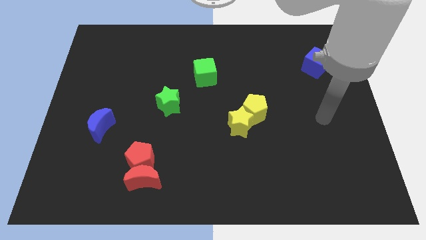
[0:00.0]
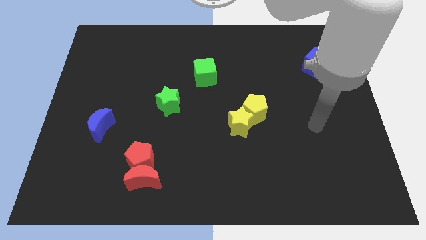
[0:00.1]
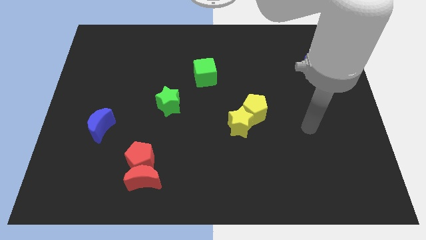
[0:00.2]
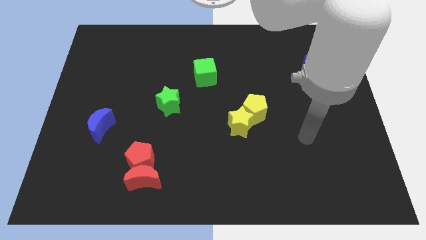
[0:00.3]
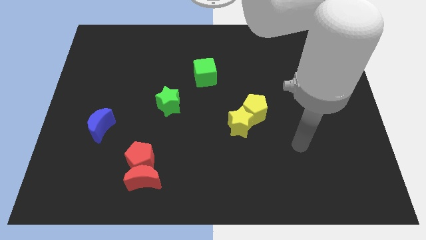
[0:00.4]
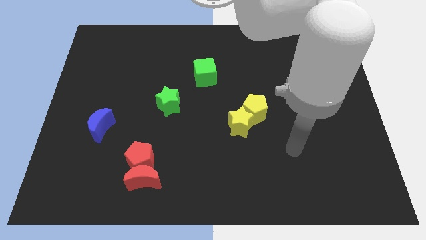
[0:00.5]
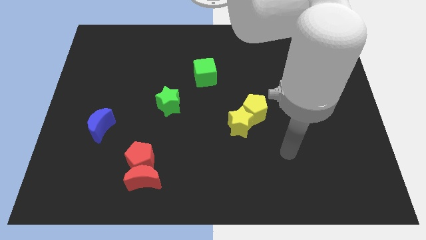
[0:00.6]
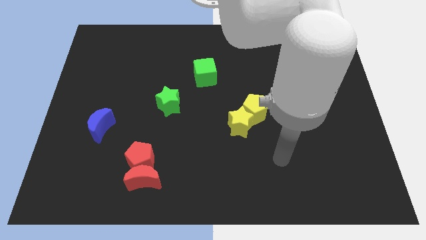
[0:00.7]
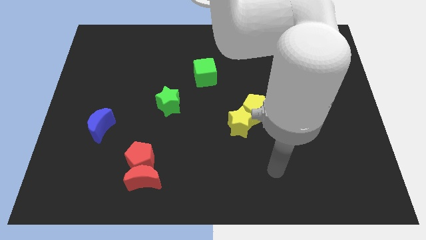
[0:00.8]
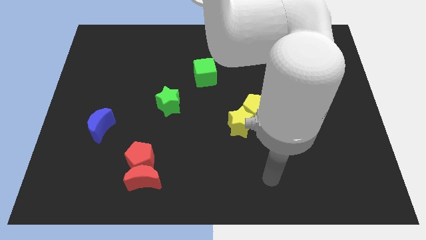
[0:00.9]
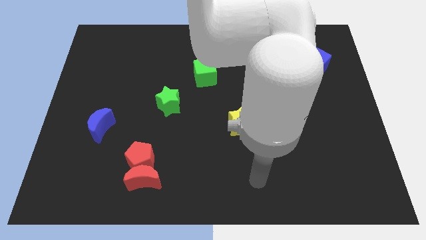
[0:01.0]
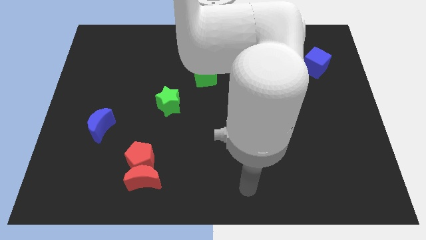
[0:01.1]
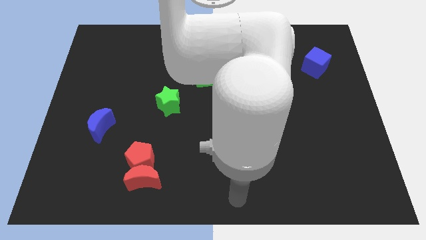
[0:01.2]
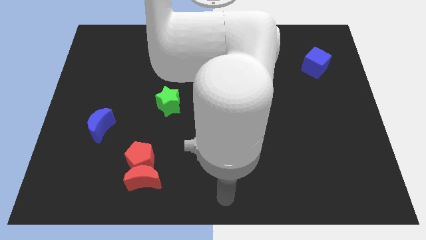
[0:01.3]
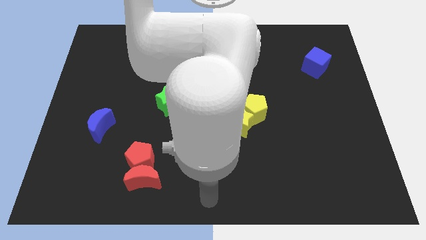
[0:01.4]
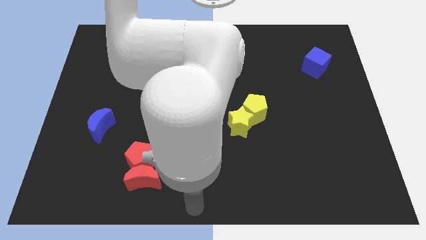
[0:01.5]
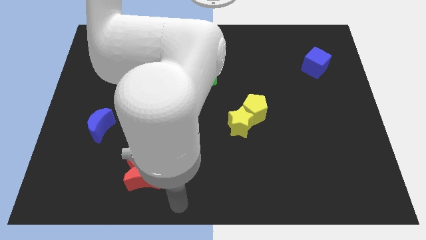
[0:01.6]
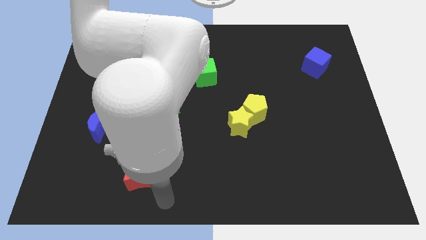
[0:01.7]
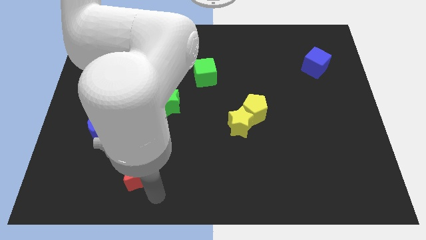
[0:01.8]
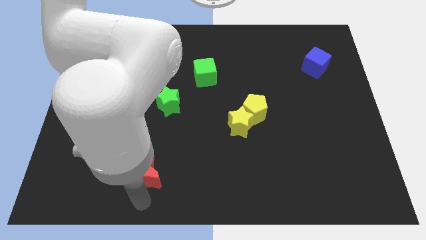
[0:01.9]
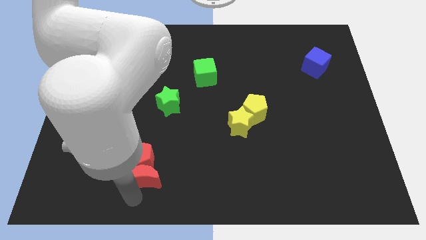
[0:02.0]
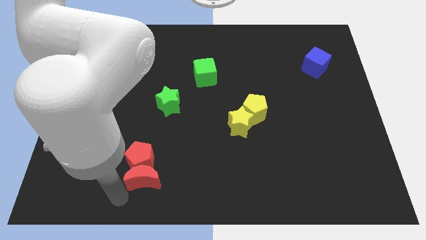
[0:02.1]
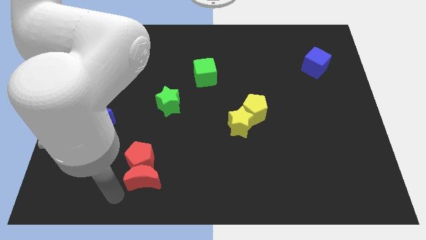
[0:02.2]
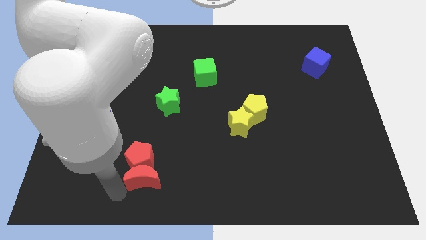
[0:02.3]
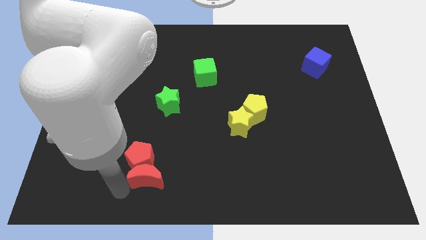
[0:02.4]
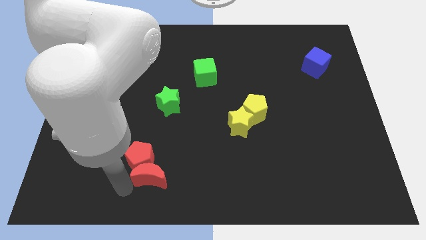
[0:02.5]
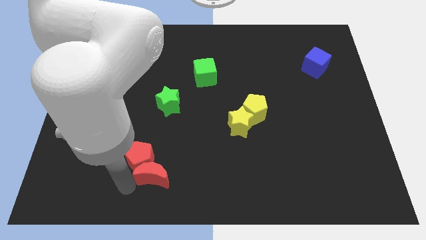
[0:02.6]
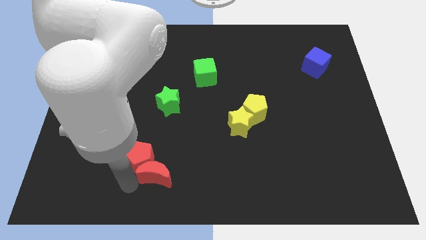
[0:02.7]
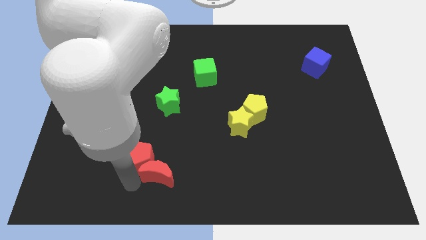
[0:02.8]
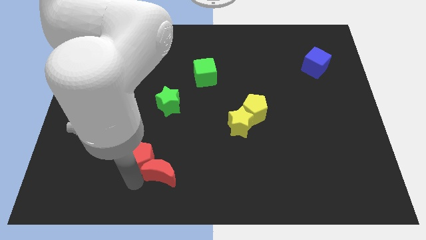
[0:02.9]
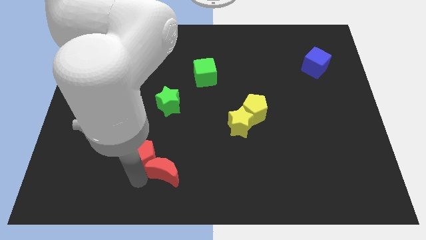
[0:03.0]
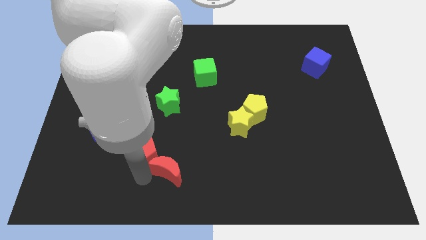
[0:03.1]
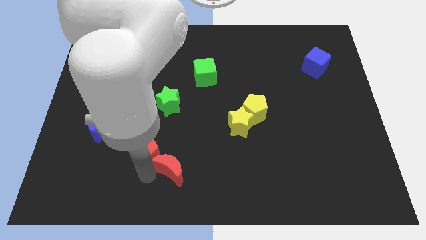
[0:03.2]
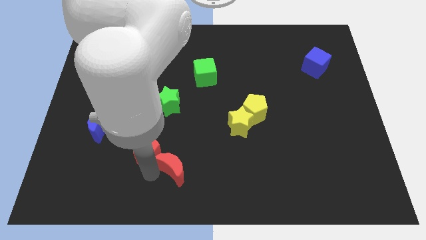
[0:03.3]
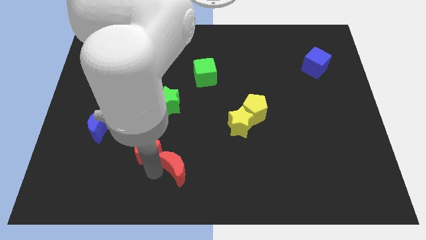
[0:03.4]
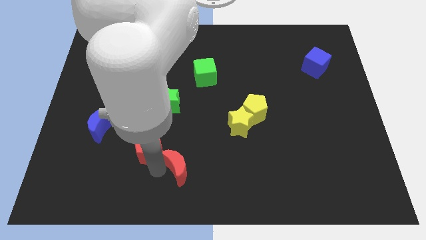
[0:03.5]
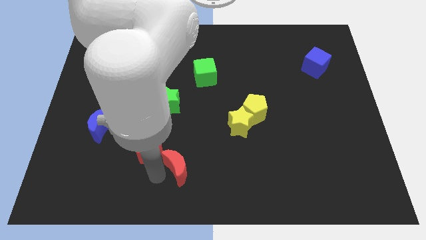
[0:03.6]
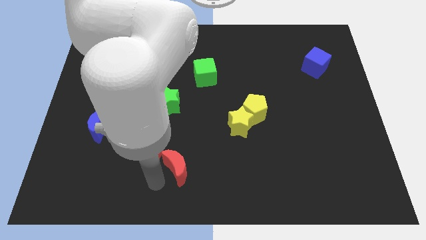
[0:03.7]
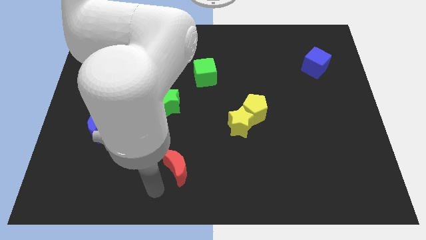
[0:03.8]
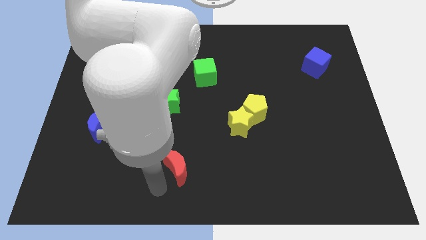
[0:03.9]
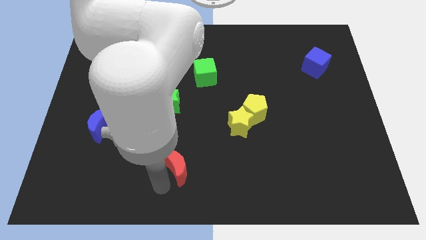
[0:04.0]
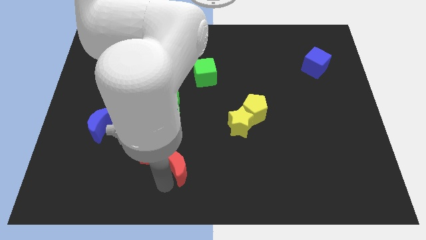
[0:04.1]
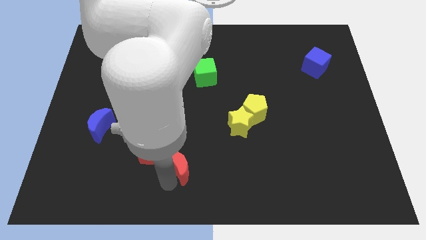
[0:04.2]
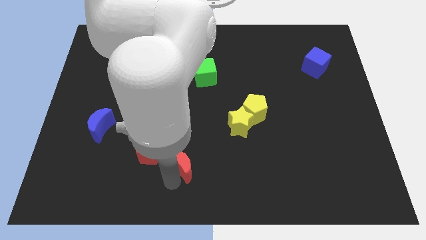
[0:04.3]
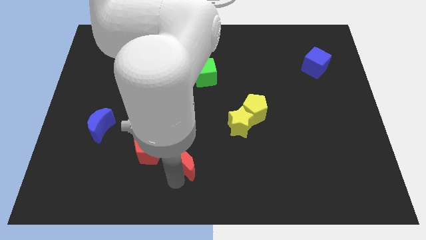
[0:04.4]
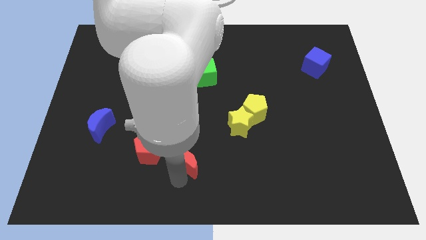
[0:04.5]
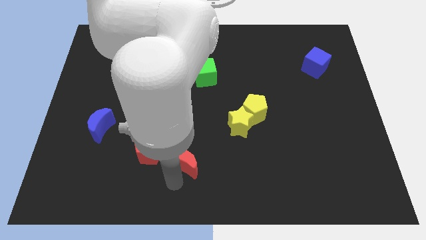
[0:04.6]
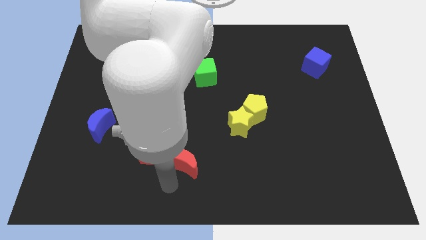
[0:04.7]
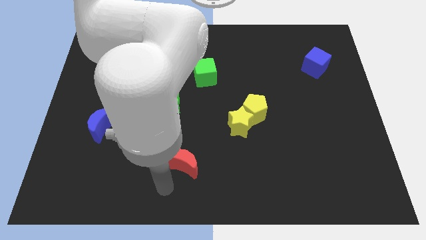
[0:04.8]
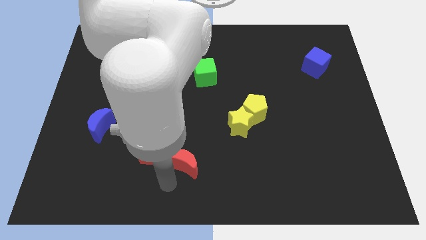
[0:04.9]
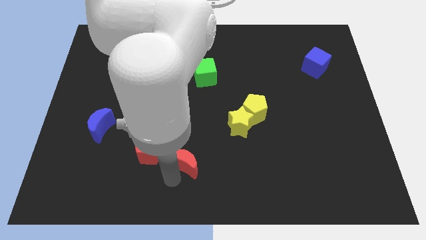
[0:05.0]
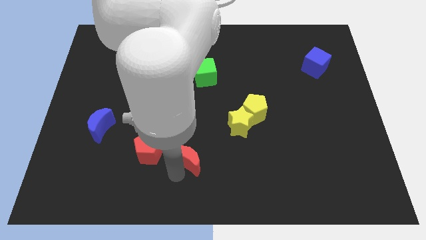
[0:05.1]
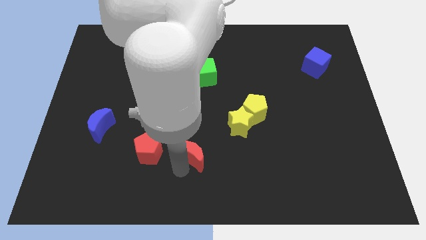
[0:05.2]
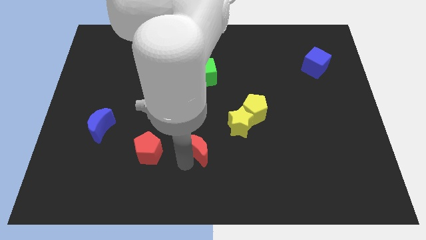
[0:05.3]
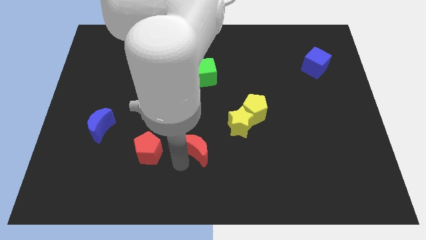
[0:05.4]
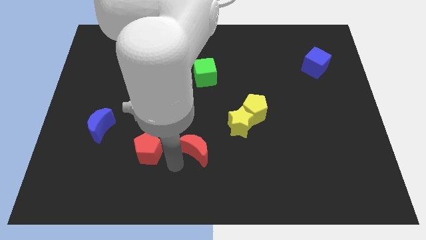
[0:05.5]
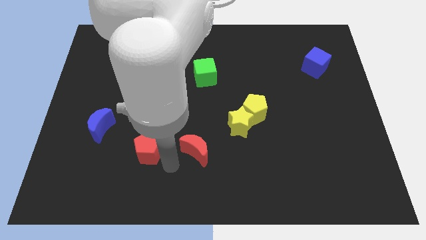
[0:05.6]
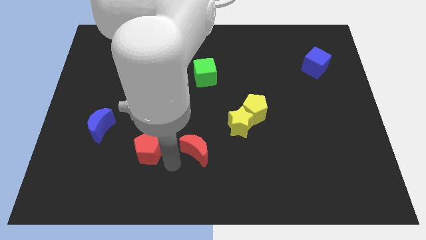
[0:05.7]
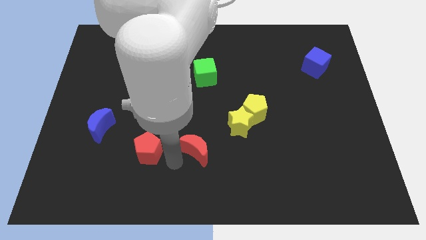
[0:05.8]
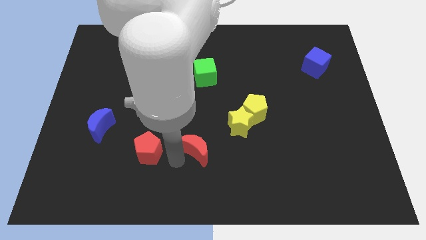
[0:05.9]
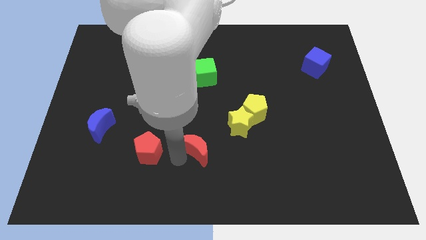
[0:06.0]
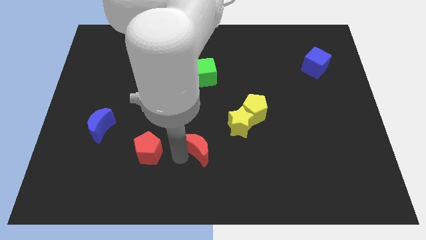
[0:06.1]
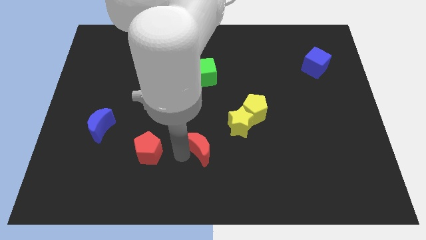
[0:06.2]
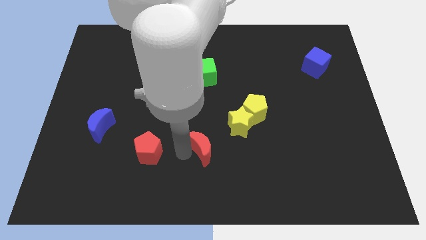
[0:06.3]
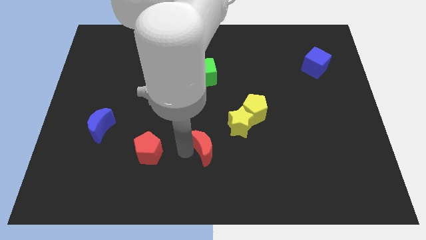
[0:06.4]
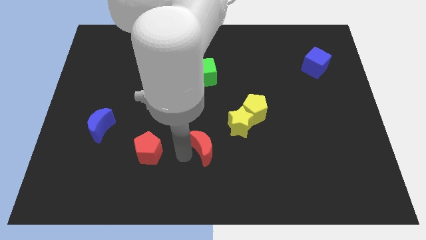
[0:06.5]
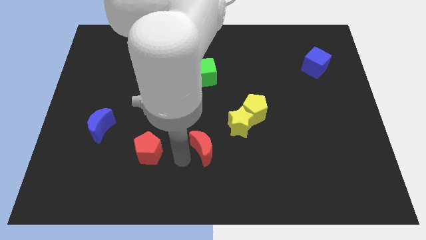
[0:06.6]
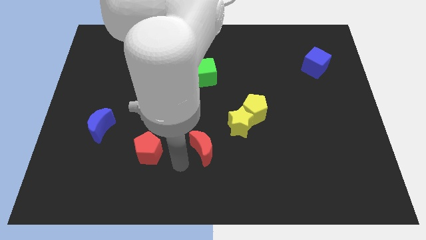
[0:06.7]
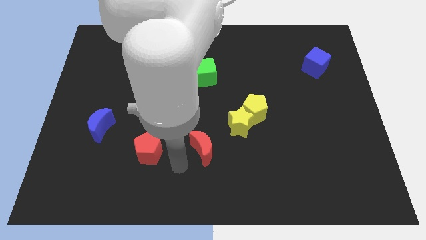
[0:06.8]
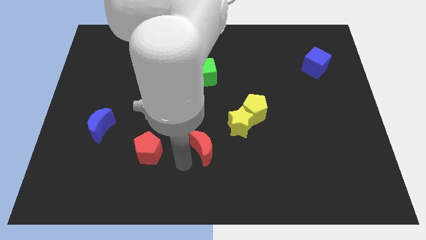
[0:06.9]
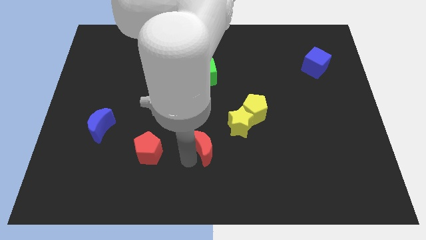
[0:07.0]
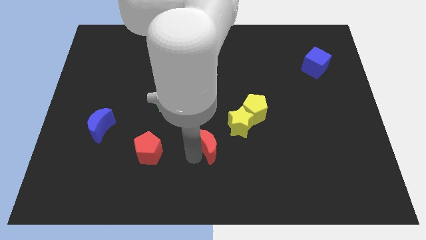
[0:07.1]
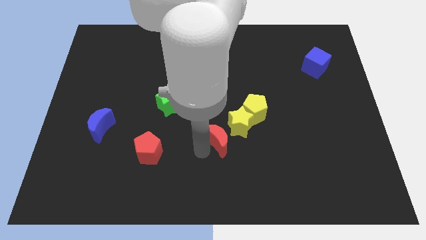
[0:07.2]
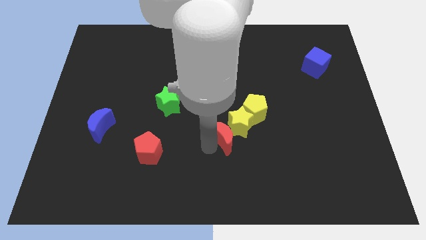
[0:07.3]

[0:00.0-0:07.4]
put the red moon towards the yellow star
